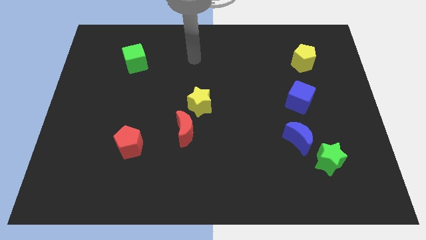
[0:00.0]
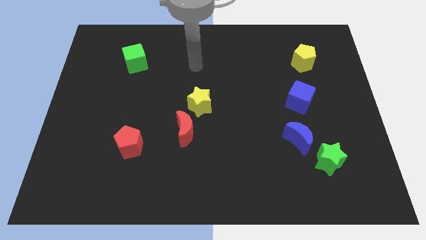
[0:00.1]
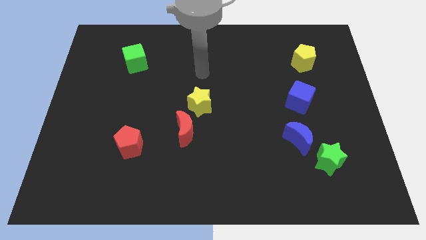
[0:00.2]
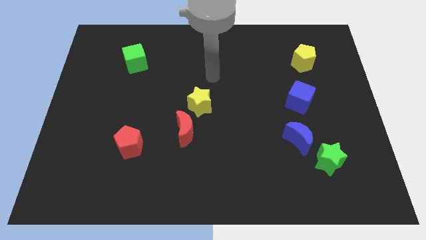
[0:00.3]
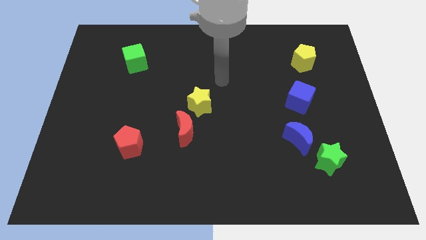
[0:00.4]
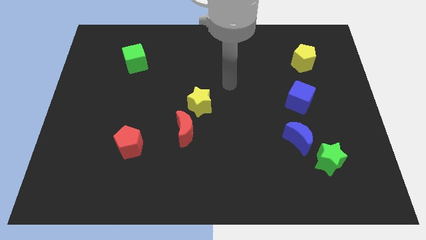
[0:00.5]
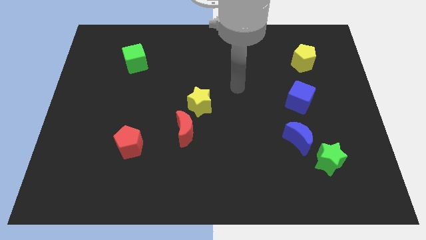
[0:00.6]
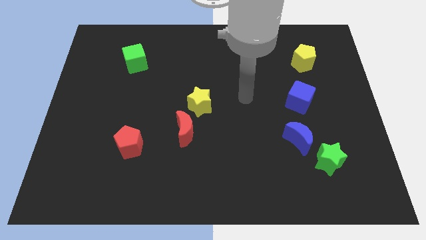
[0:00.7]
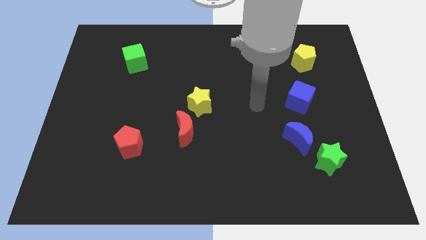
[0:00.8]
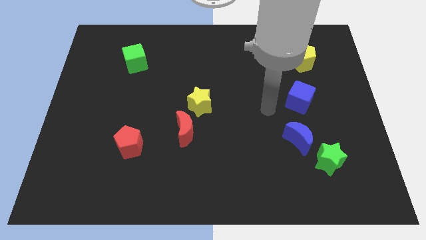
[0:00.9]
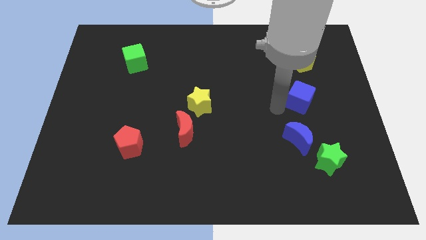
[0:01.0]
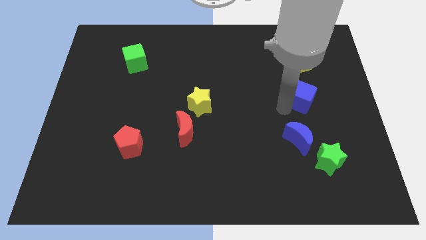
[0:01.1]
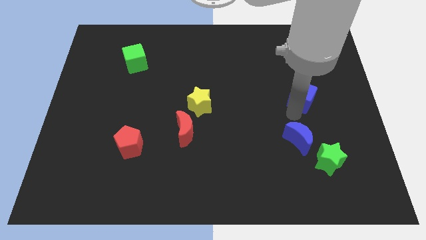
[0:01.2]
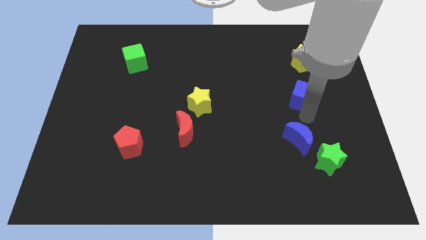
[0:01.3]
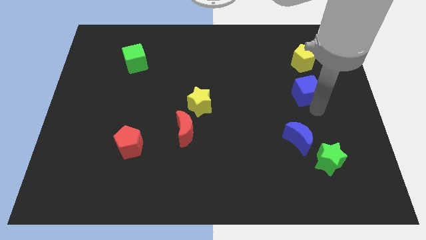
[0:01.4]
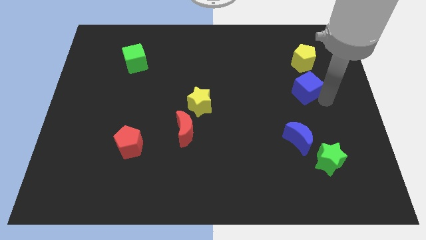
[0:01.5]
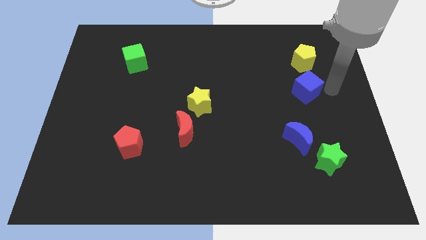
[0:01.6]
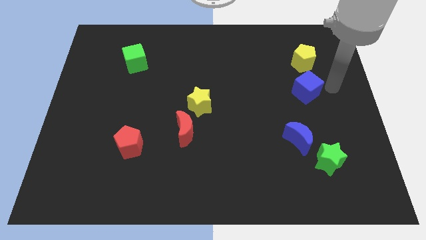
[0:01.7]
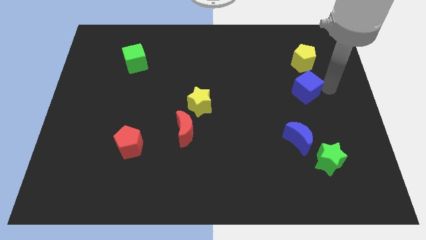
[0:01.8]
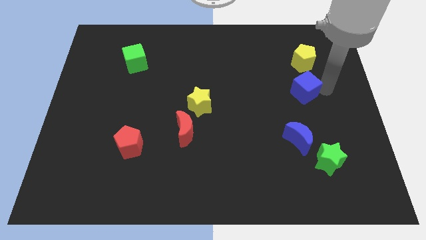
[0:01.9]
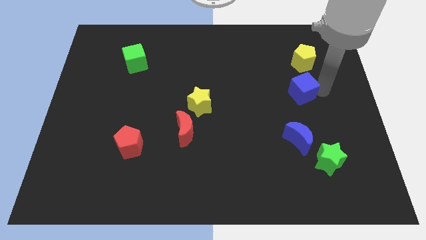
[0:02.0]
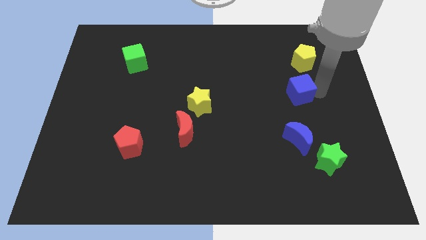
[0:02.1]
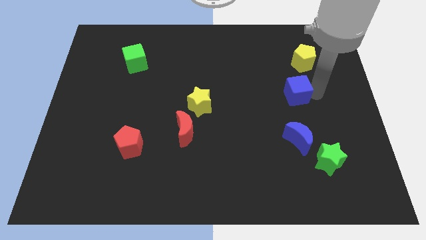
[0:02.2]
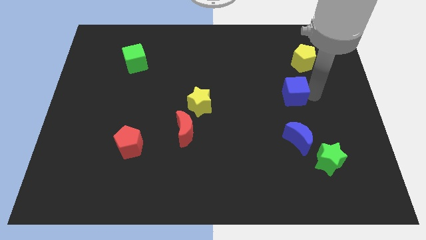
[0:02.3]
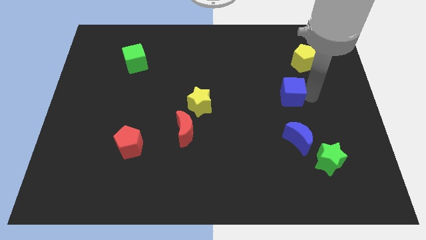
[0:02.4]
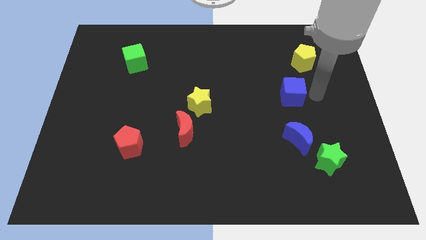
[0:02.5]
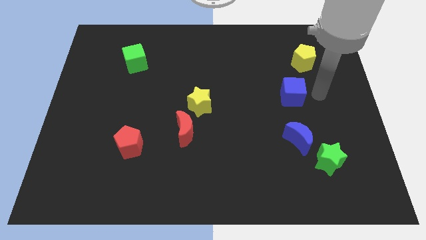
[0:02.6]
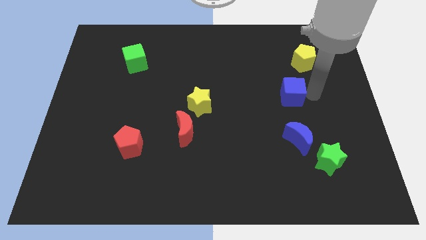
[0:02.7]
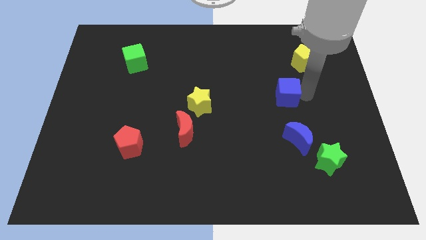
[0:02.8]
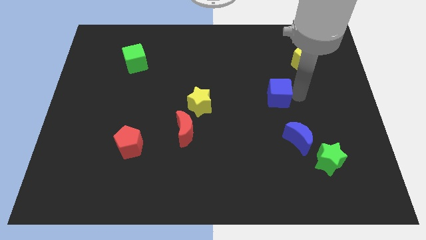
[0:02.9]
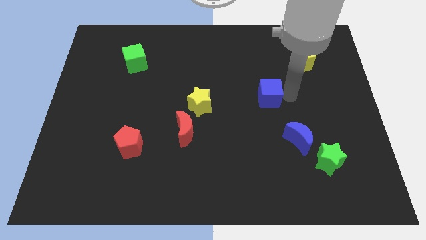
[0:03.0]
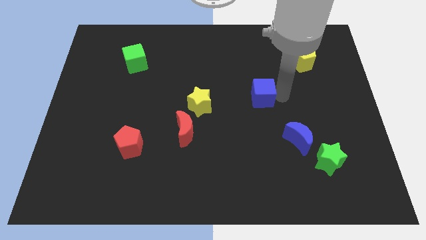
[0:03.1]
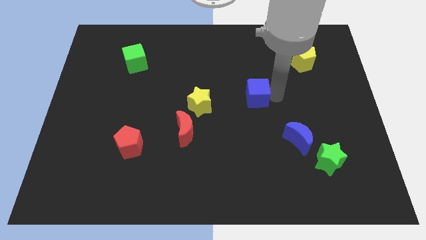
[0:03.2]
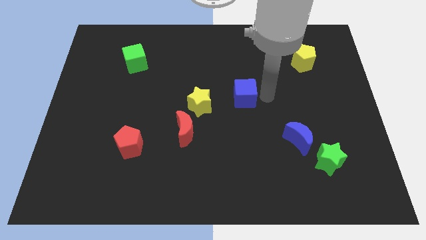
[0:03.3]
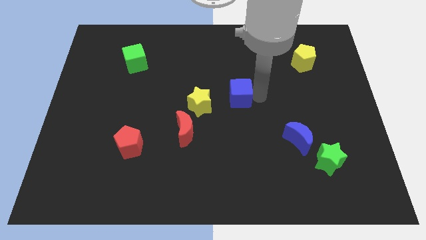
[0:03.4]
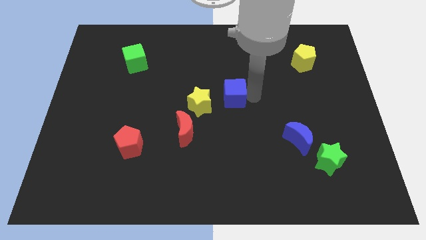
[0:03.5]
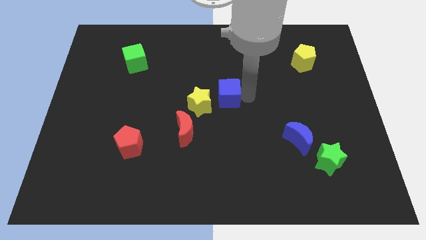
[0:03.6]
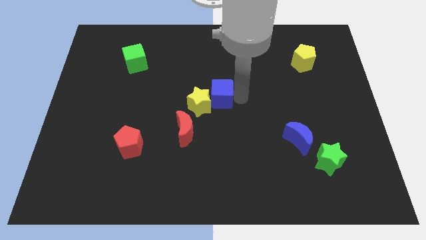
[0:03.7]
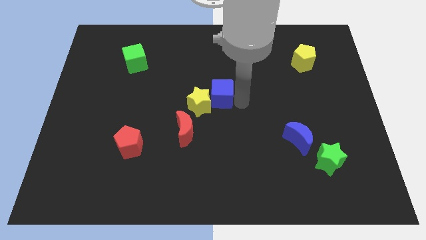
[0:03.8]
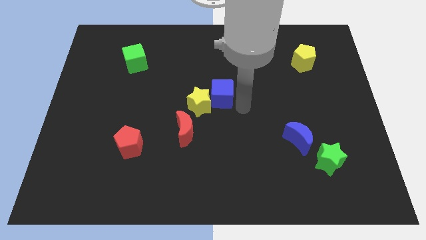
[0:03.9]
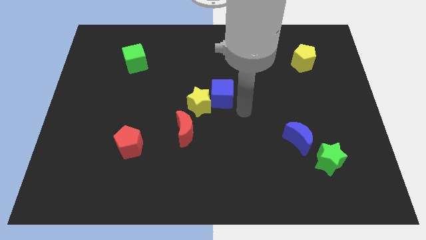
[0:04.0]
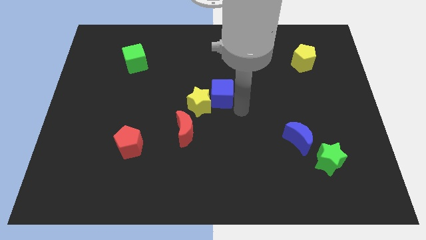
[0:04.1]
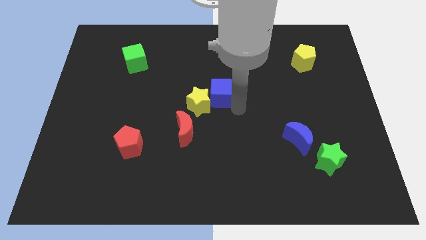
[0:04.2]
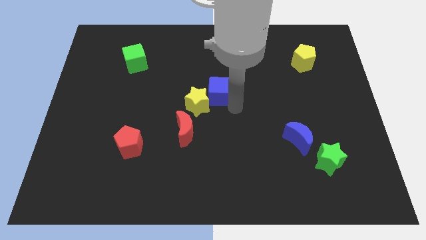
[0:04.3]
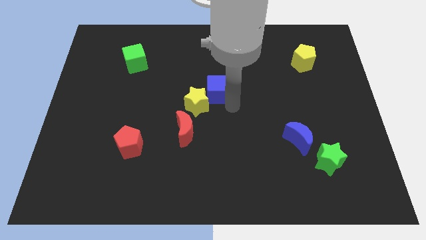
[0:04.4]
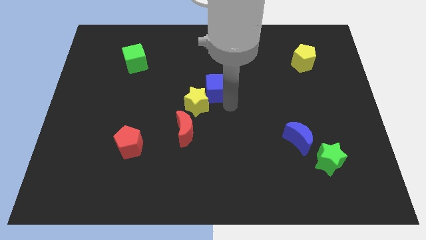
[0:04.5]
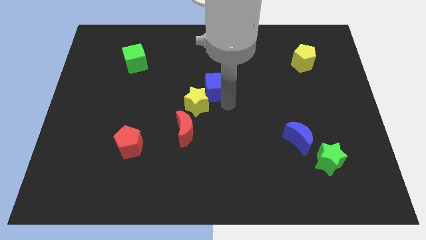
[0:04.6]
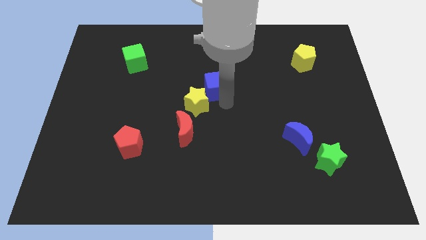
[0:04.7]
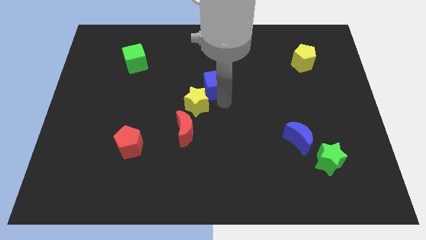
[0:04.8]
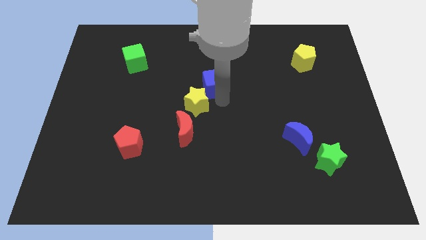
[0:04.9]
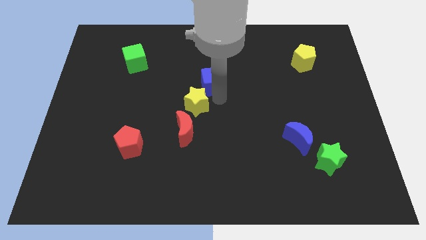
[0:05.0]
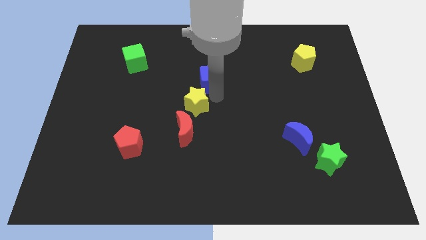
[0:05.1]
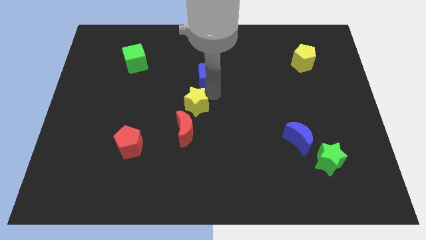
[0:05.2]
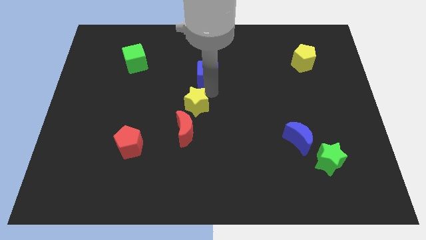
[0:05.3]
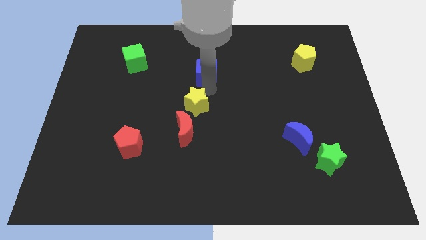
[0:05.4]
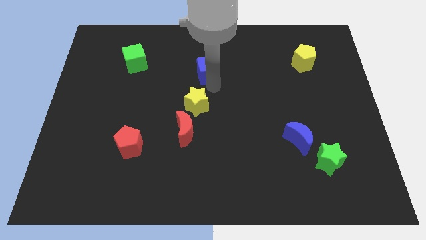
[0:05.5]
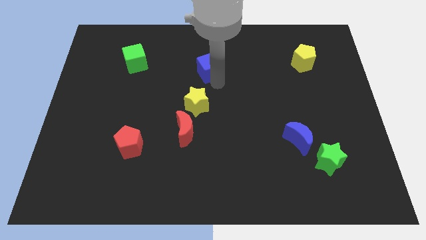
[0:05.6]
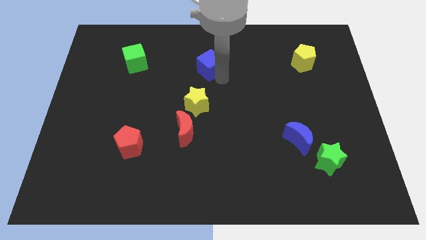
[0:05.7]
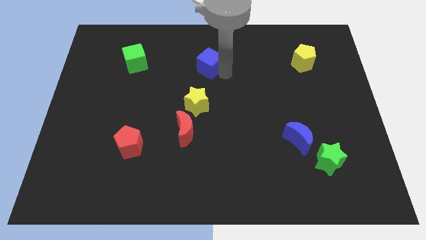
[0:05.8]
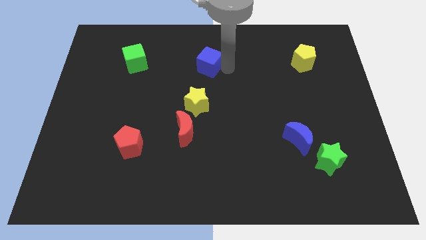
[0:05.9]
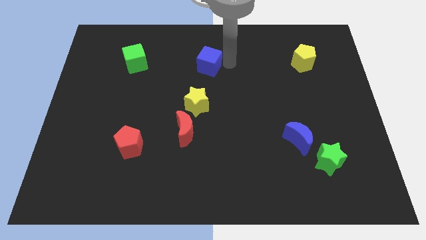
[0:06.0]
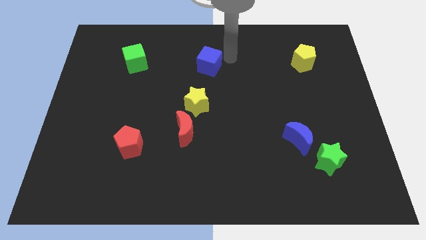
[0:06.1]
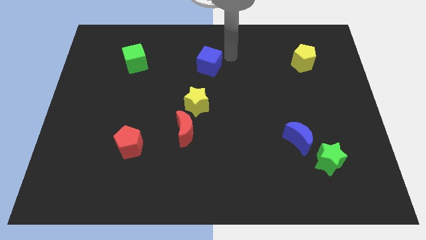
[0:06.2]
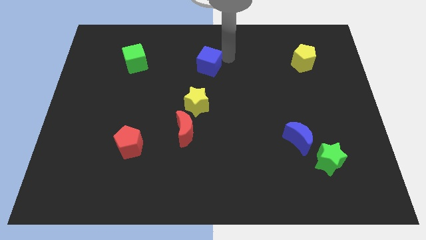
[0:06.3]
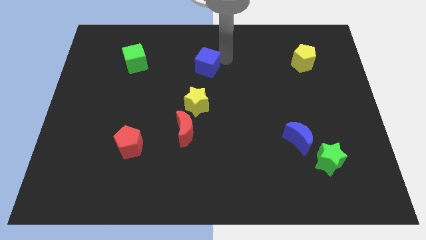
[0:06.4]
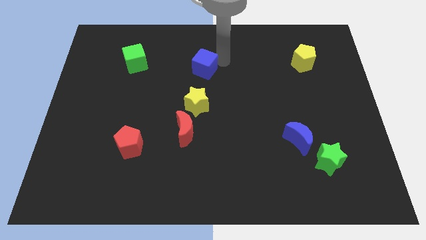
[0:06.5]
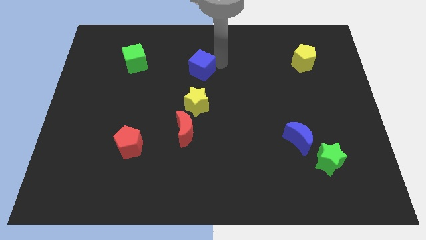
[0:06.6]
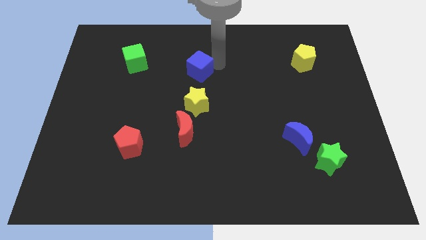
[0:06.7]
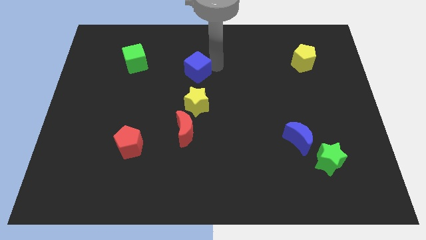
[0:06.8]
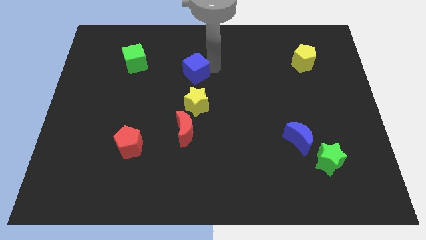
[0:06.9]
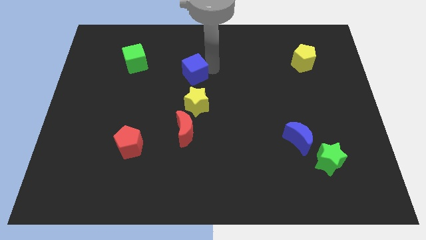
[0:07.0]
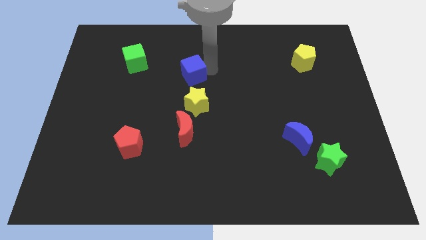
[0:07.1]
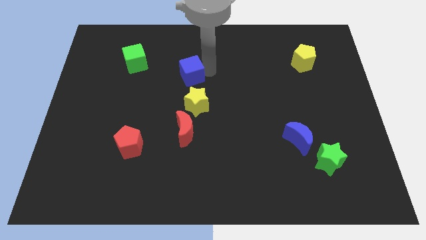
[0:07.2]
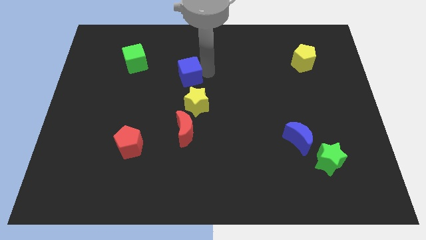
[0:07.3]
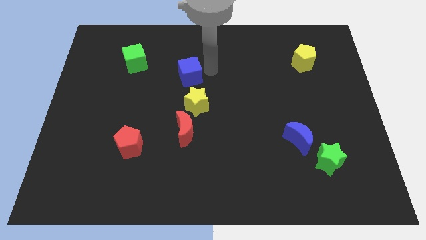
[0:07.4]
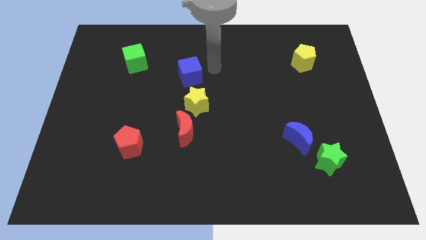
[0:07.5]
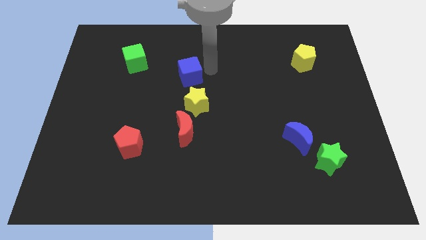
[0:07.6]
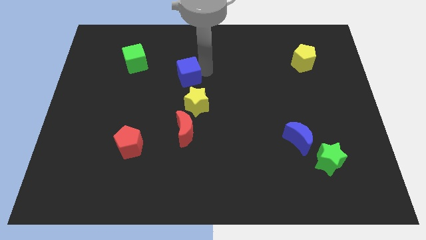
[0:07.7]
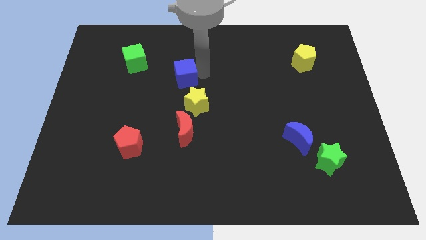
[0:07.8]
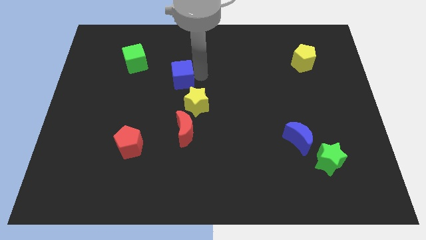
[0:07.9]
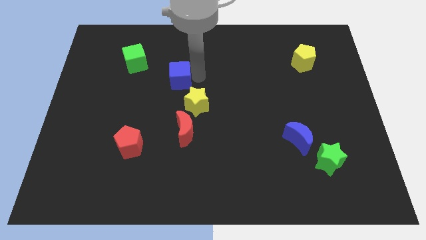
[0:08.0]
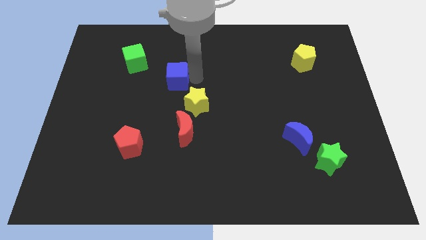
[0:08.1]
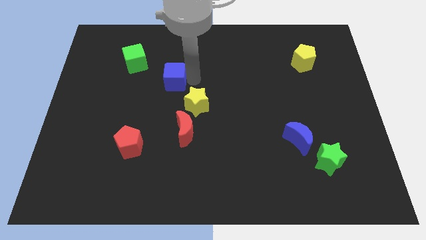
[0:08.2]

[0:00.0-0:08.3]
move the blue cube to the bottom right side of the green cube
